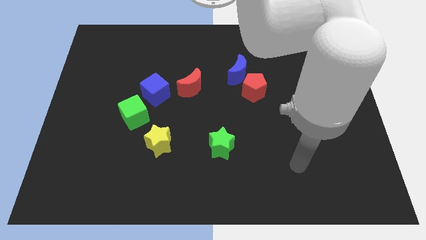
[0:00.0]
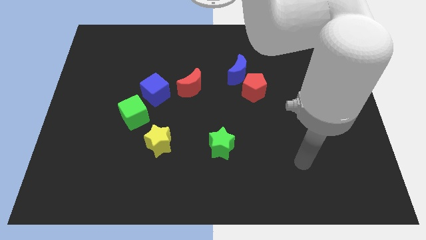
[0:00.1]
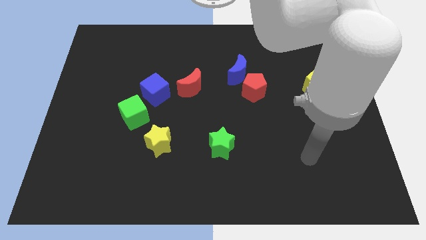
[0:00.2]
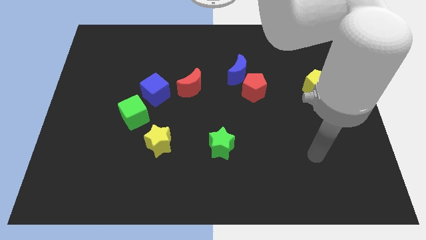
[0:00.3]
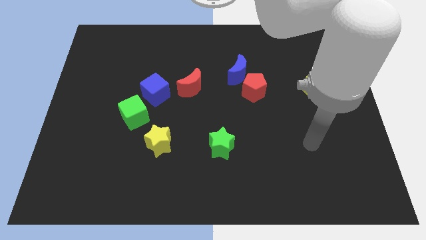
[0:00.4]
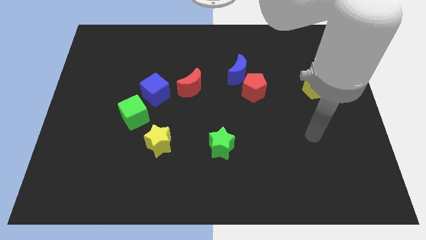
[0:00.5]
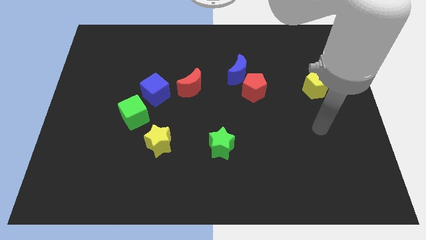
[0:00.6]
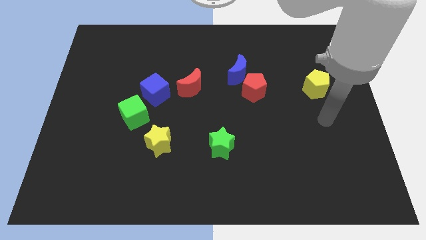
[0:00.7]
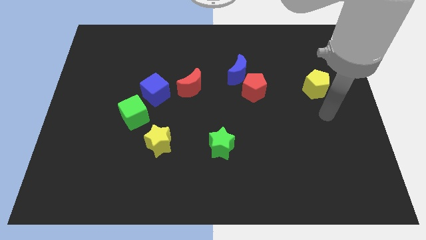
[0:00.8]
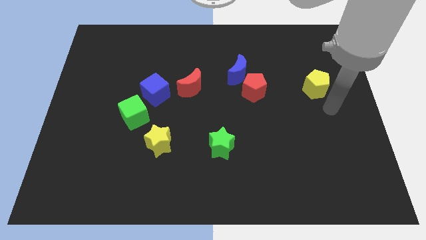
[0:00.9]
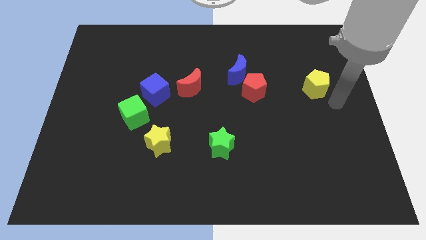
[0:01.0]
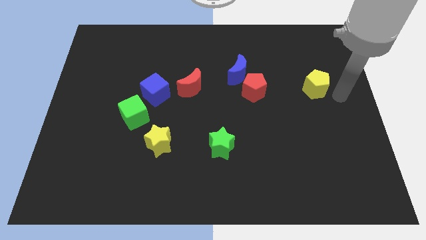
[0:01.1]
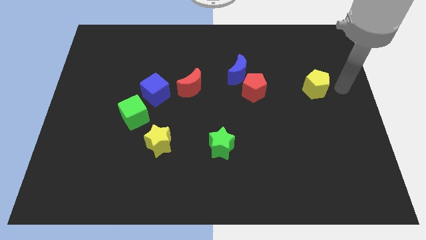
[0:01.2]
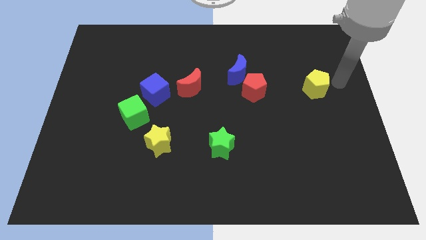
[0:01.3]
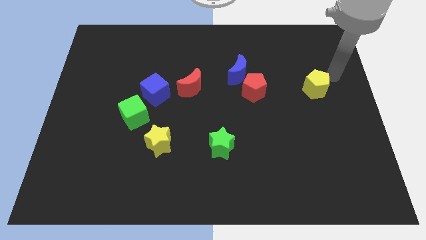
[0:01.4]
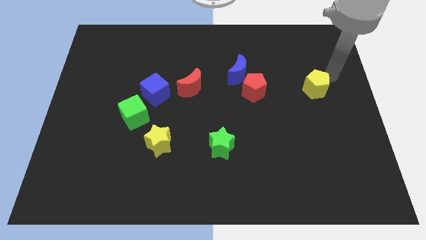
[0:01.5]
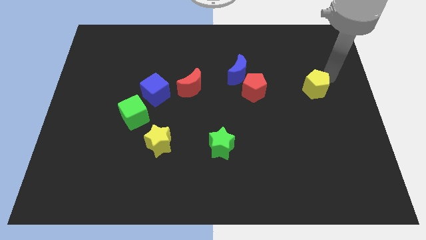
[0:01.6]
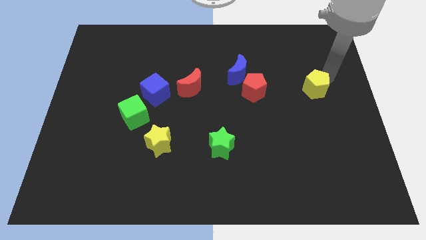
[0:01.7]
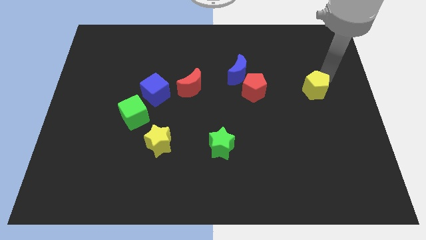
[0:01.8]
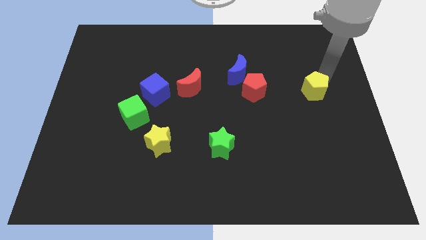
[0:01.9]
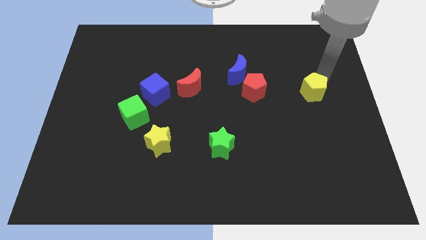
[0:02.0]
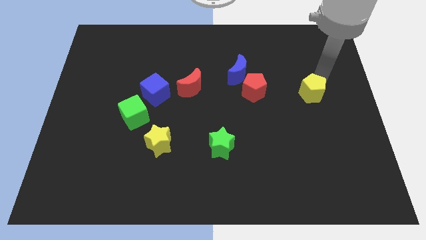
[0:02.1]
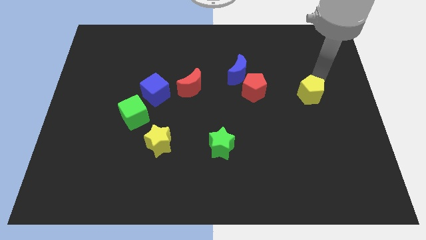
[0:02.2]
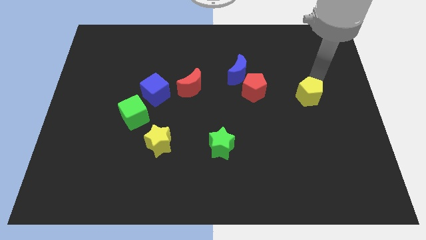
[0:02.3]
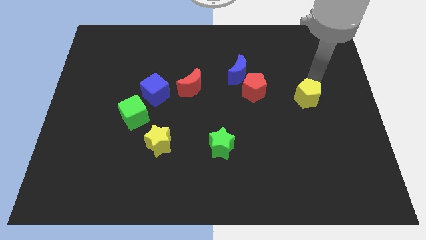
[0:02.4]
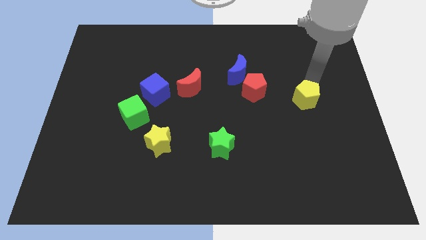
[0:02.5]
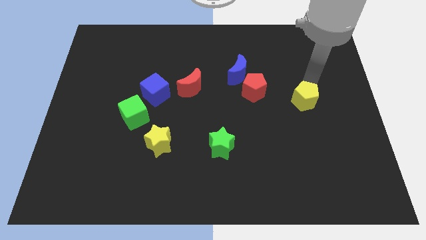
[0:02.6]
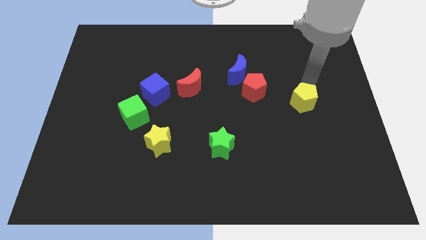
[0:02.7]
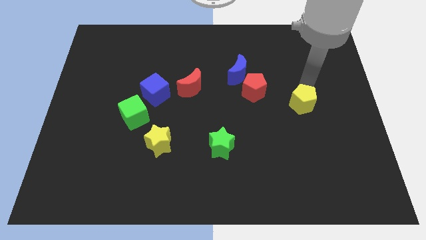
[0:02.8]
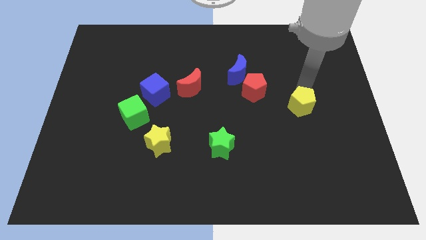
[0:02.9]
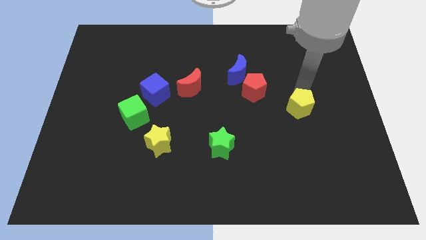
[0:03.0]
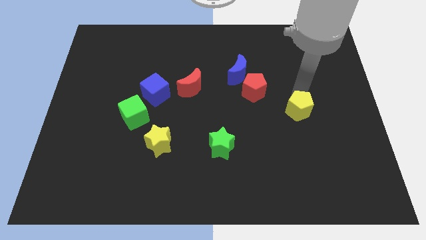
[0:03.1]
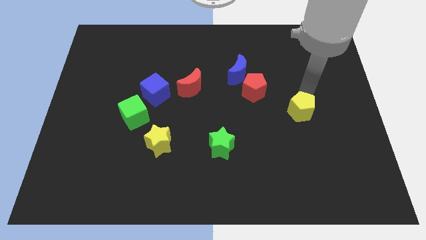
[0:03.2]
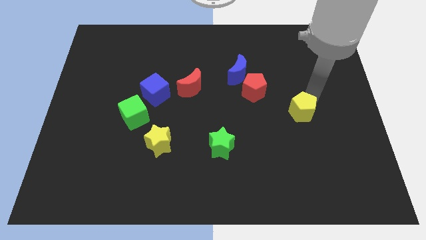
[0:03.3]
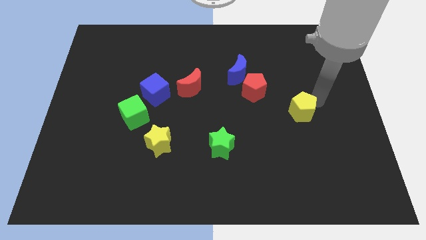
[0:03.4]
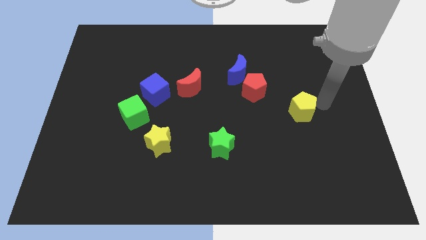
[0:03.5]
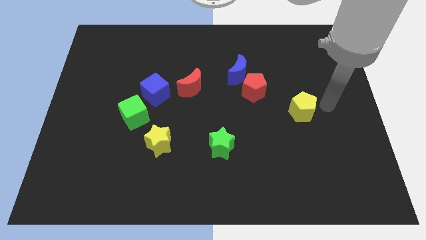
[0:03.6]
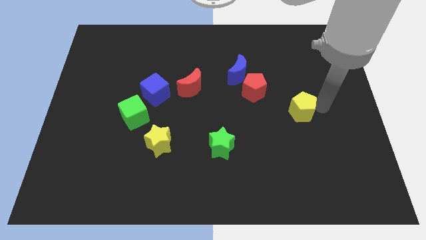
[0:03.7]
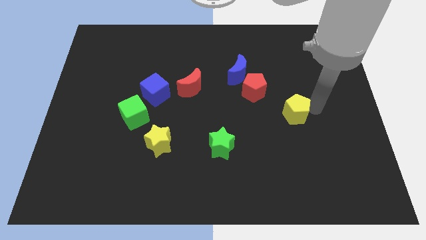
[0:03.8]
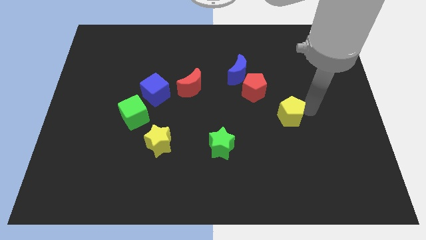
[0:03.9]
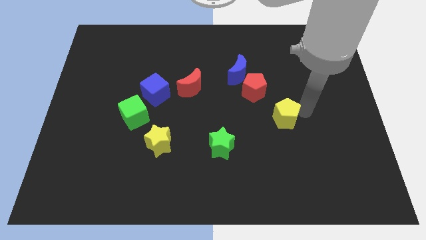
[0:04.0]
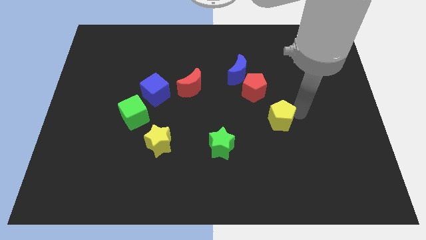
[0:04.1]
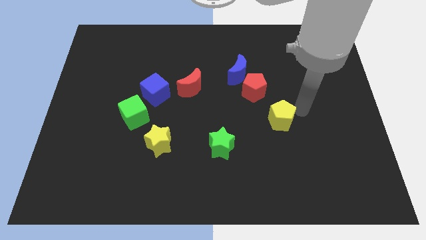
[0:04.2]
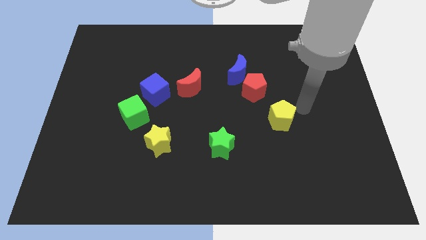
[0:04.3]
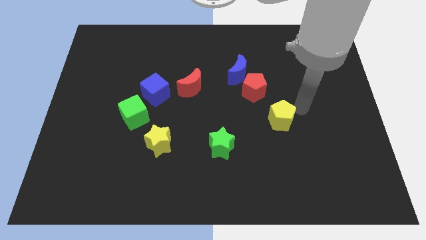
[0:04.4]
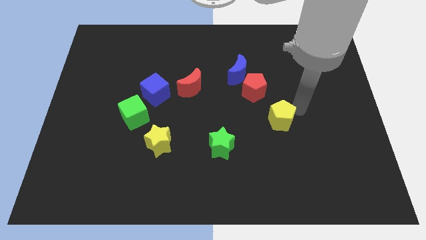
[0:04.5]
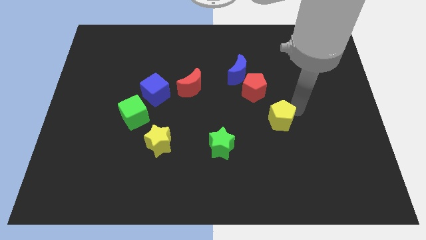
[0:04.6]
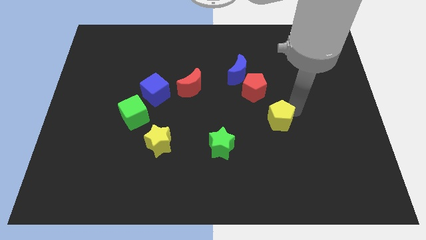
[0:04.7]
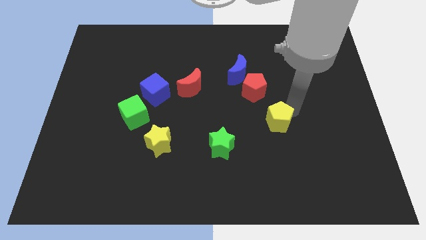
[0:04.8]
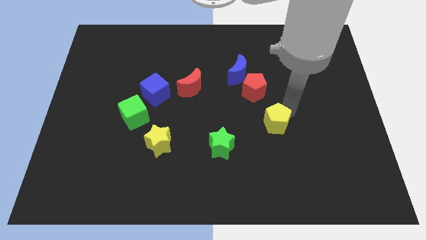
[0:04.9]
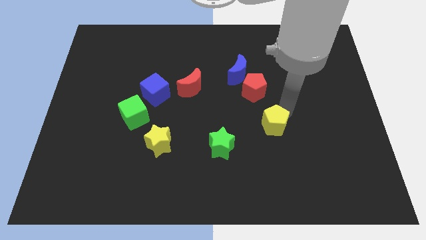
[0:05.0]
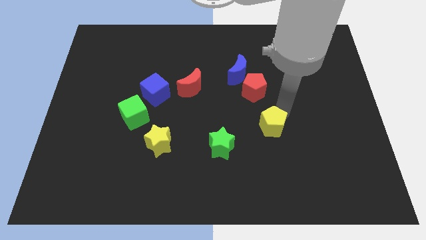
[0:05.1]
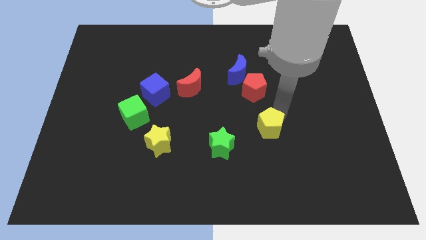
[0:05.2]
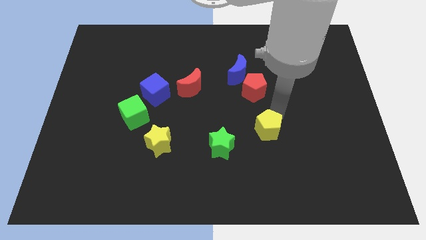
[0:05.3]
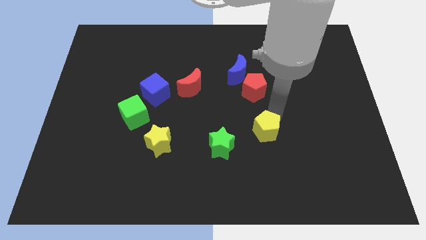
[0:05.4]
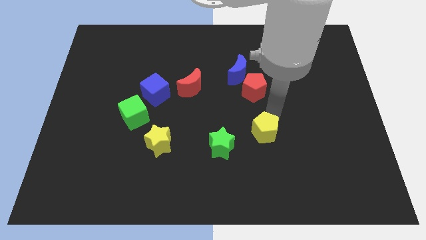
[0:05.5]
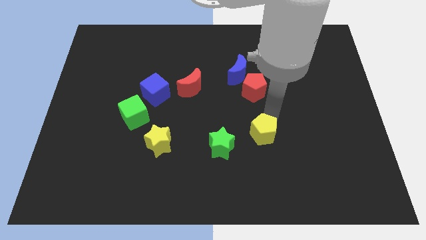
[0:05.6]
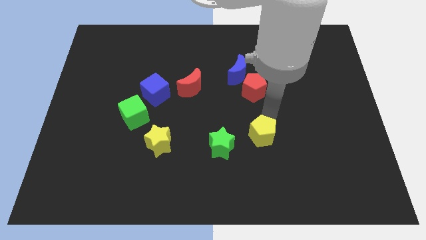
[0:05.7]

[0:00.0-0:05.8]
slide the yellow pentagon diagonally down and left

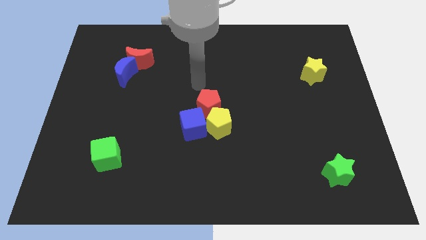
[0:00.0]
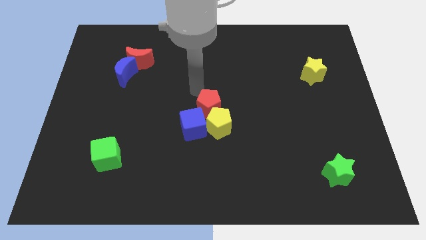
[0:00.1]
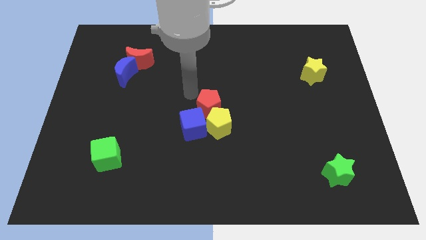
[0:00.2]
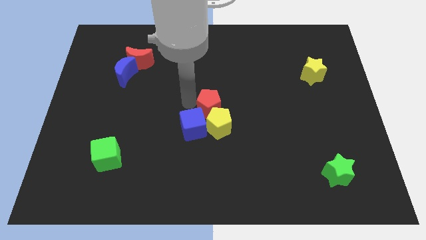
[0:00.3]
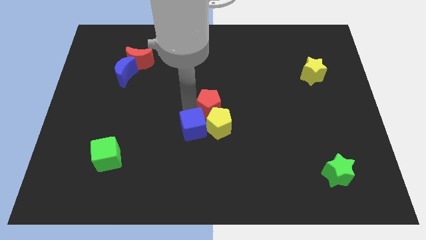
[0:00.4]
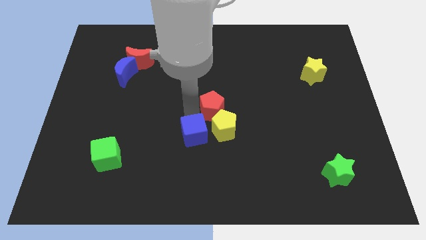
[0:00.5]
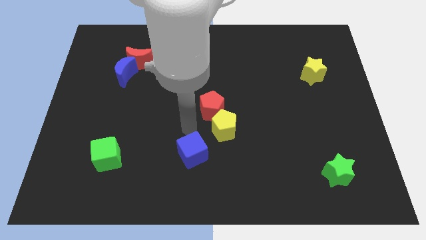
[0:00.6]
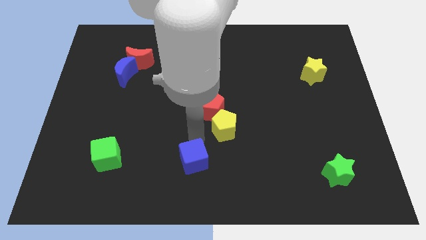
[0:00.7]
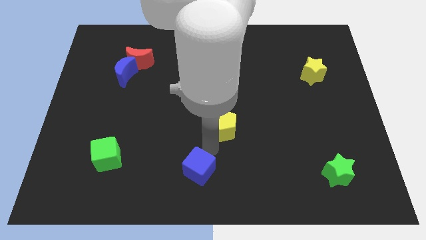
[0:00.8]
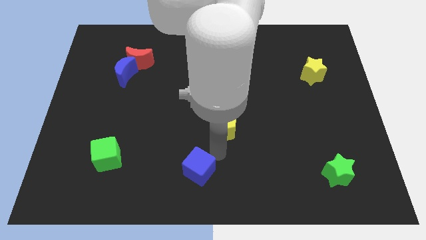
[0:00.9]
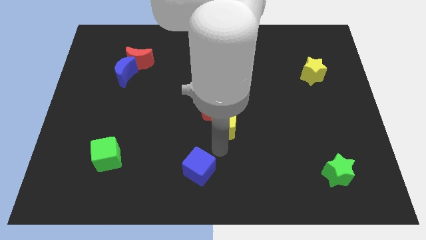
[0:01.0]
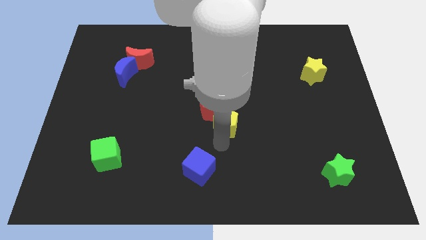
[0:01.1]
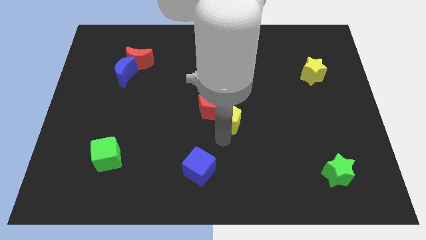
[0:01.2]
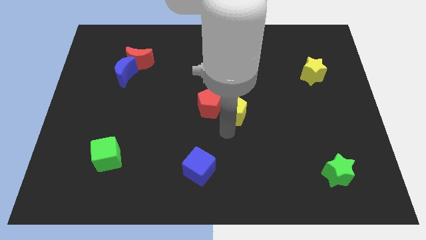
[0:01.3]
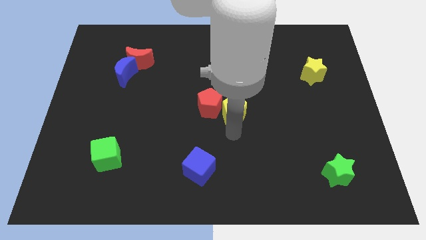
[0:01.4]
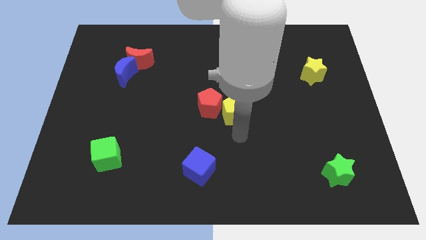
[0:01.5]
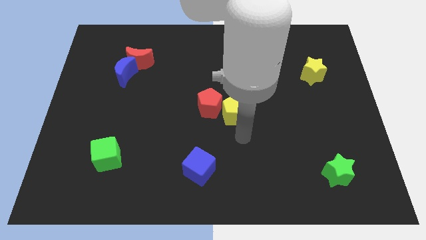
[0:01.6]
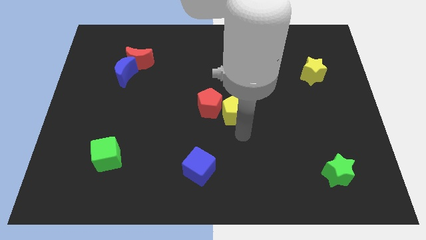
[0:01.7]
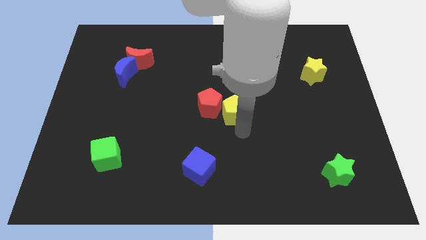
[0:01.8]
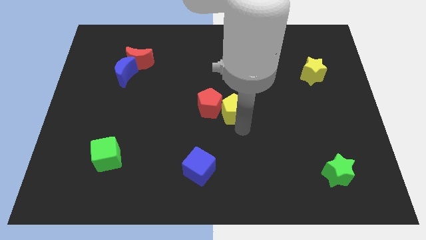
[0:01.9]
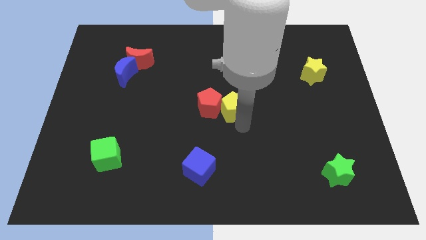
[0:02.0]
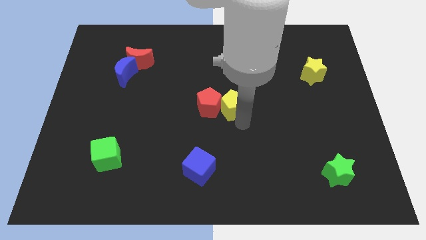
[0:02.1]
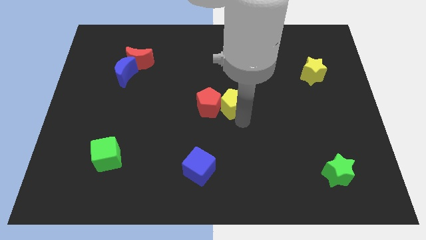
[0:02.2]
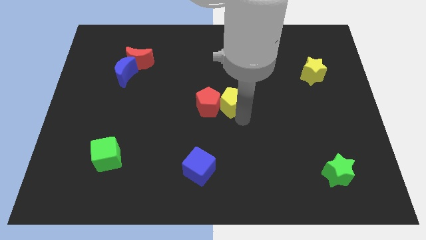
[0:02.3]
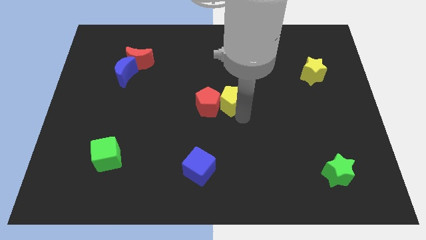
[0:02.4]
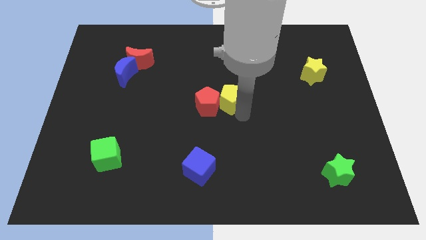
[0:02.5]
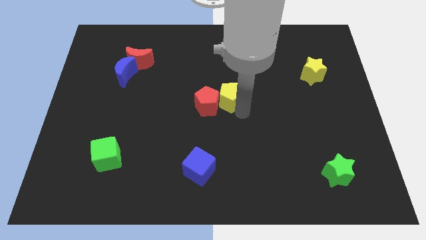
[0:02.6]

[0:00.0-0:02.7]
slightly move the yellow pentagon upwards
